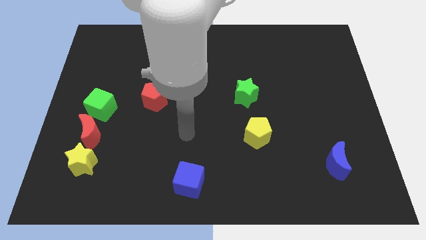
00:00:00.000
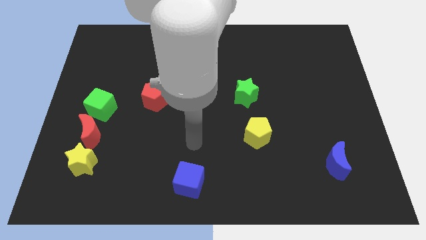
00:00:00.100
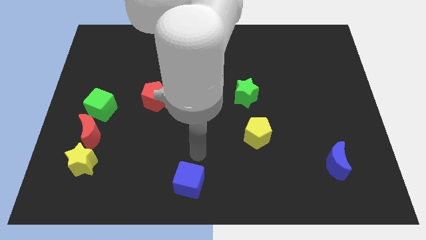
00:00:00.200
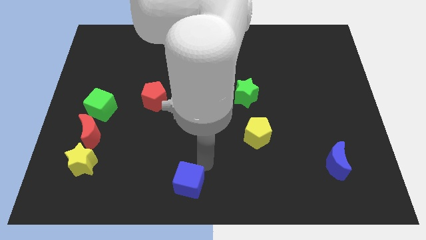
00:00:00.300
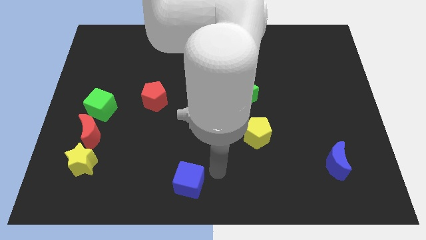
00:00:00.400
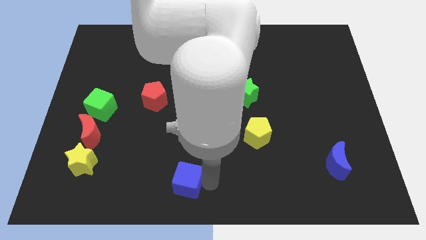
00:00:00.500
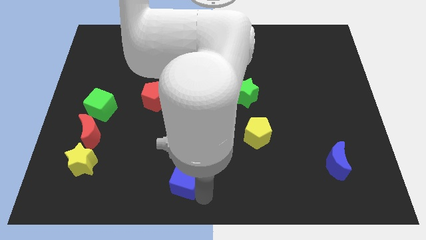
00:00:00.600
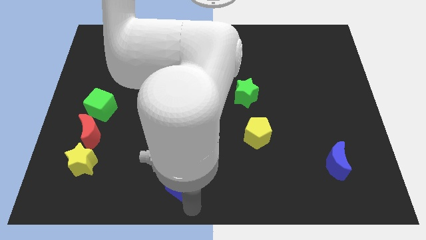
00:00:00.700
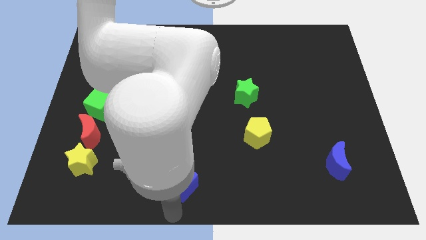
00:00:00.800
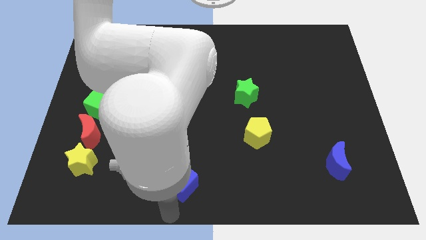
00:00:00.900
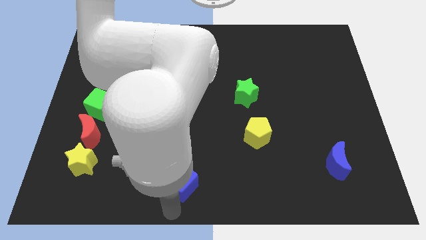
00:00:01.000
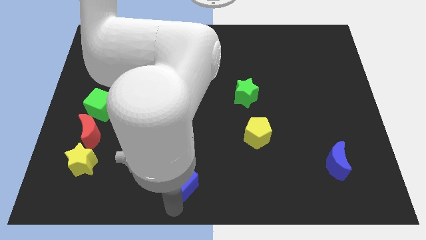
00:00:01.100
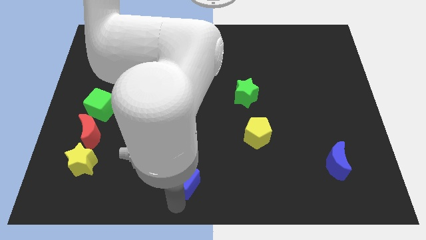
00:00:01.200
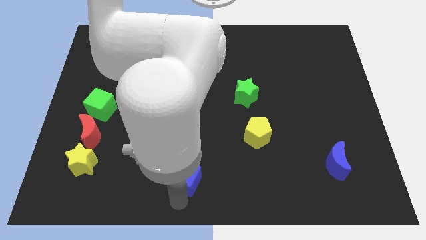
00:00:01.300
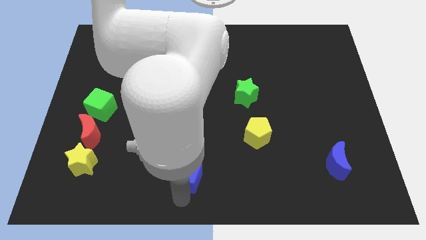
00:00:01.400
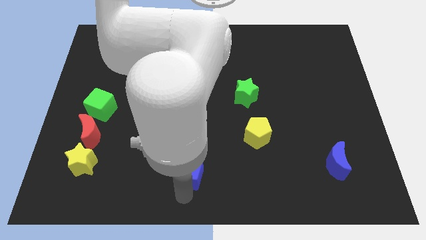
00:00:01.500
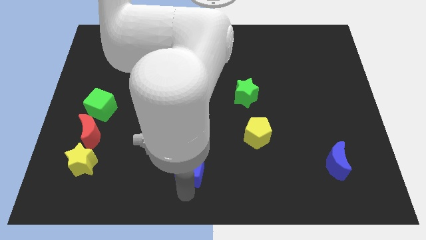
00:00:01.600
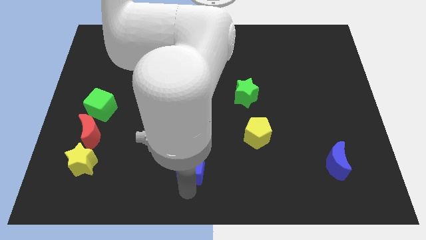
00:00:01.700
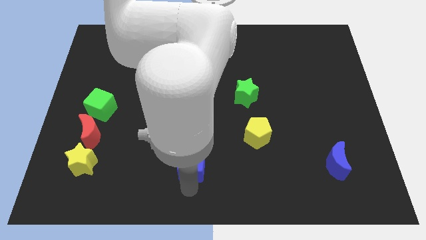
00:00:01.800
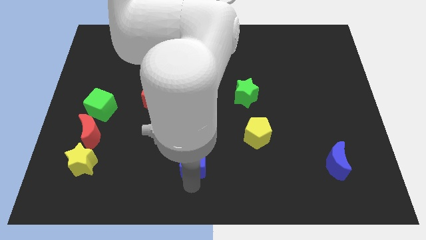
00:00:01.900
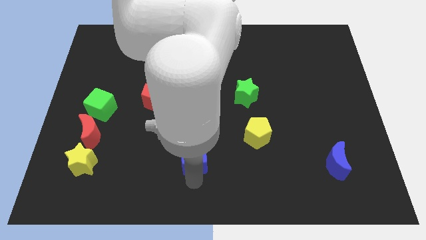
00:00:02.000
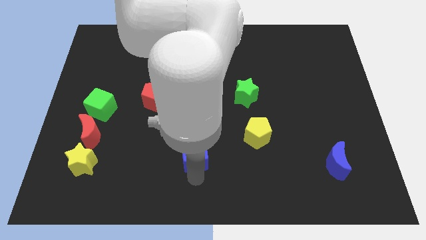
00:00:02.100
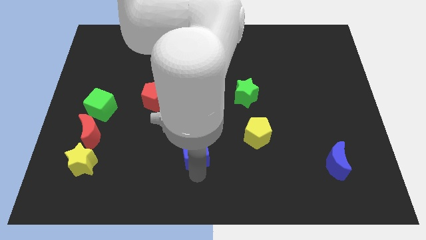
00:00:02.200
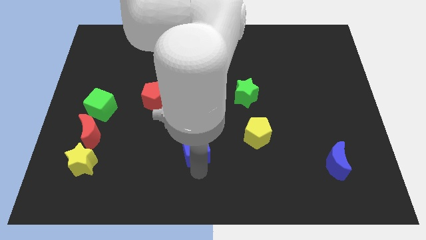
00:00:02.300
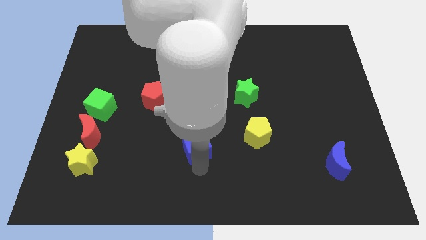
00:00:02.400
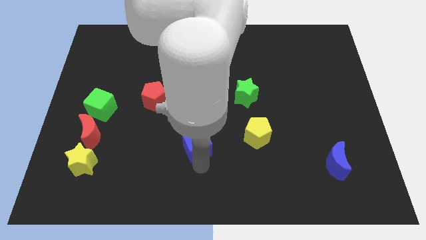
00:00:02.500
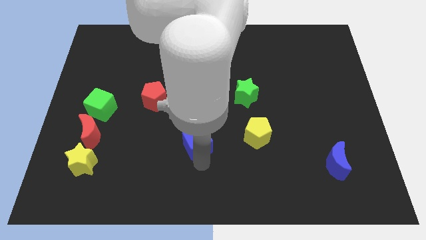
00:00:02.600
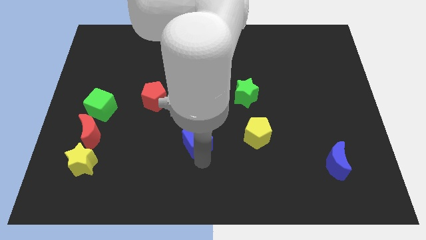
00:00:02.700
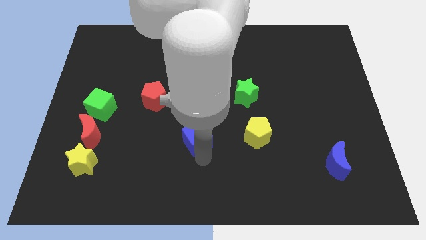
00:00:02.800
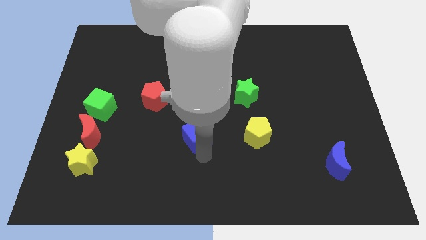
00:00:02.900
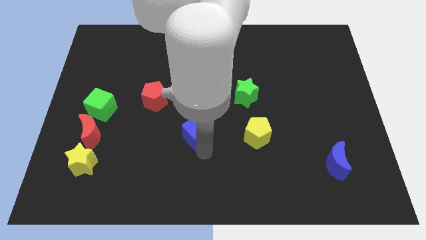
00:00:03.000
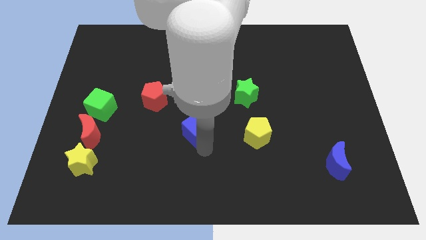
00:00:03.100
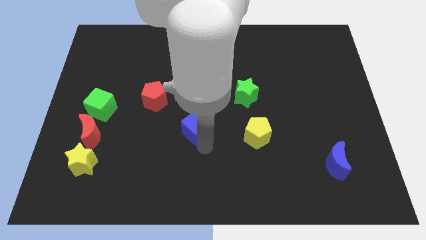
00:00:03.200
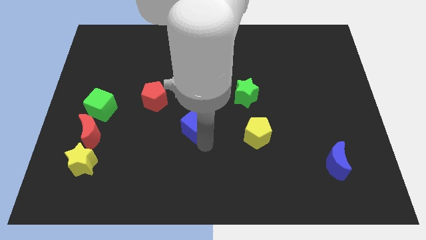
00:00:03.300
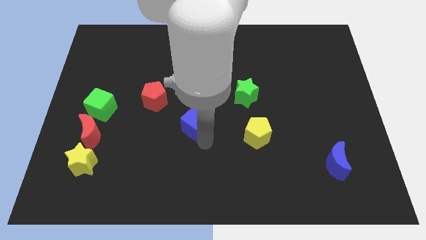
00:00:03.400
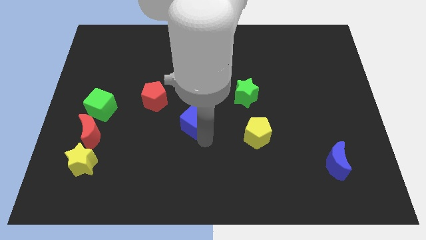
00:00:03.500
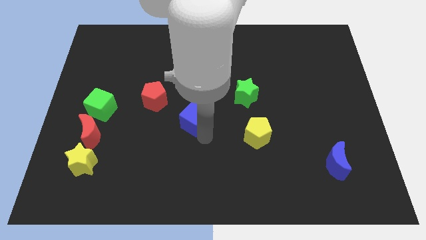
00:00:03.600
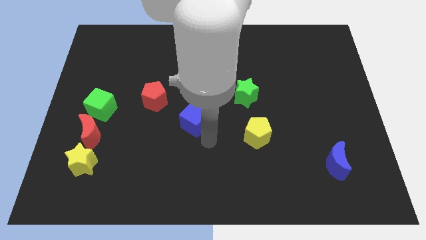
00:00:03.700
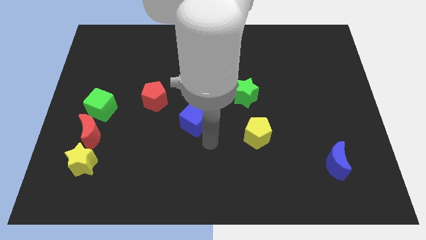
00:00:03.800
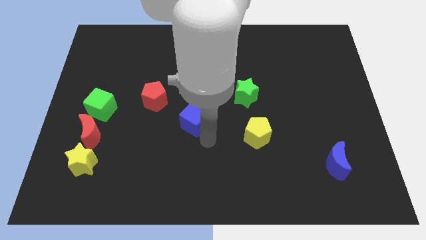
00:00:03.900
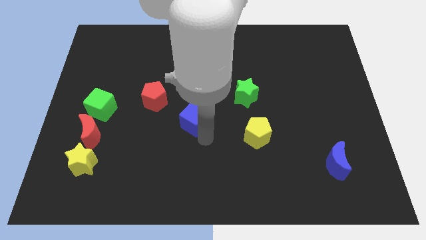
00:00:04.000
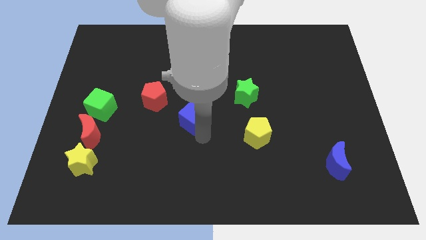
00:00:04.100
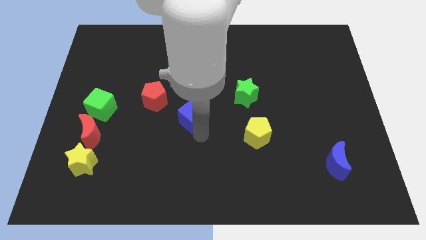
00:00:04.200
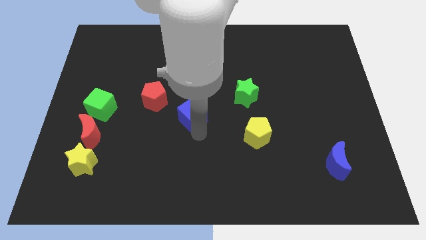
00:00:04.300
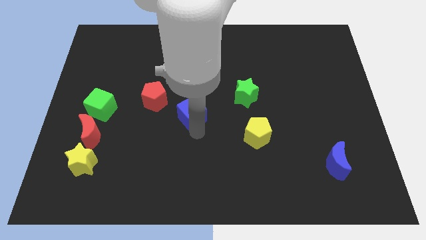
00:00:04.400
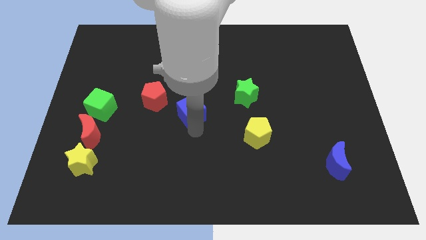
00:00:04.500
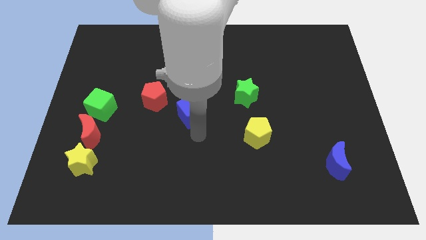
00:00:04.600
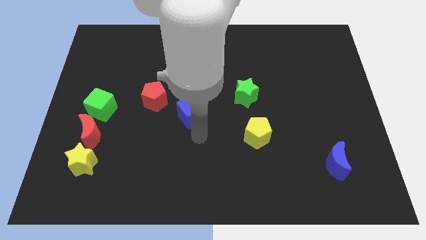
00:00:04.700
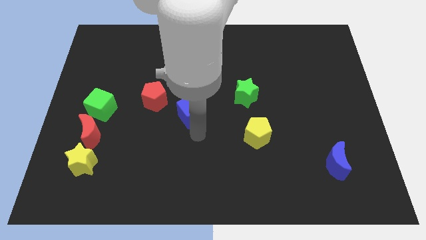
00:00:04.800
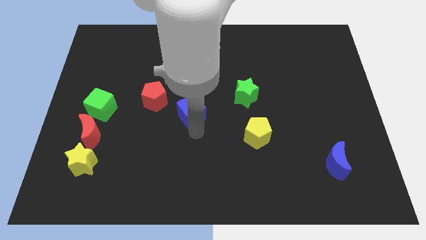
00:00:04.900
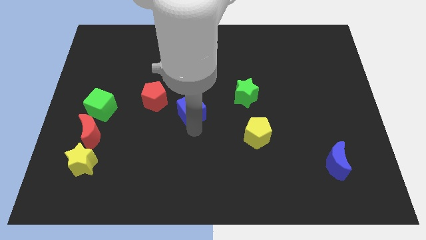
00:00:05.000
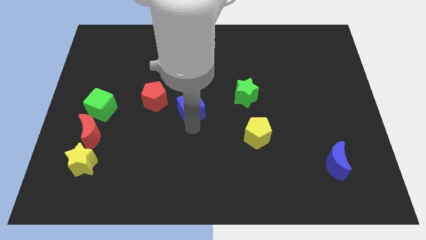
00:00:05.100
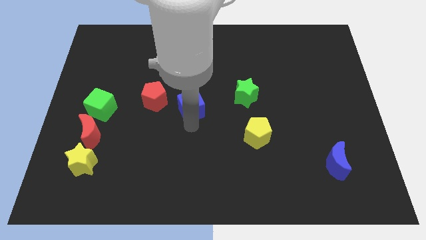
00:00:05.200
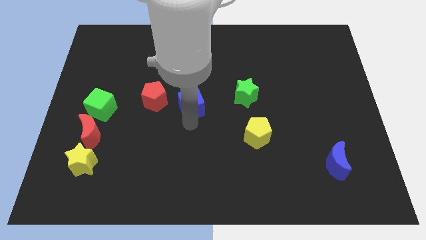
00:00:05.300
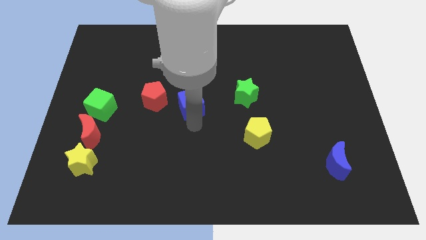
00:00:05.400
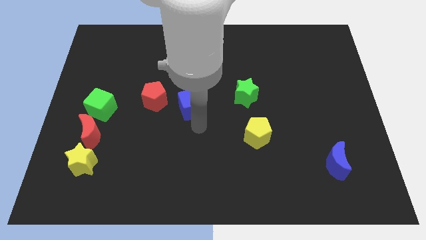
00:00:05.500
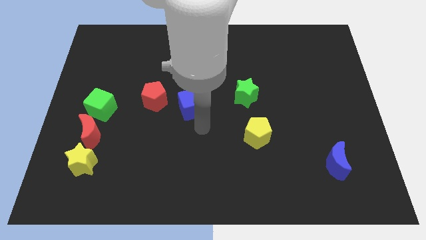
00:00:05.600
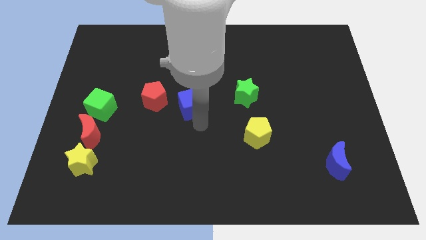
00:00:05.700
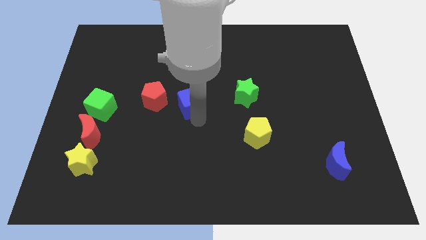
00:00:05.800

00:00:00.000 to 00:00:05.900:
push the blue cube up

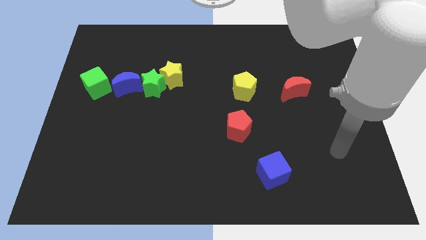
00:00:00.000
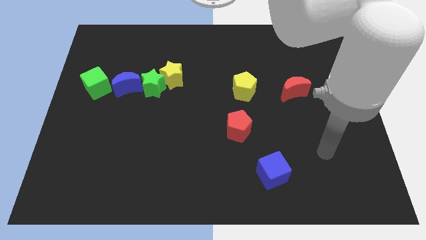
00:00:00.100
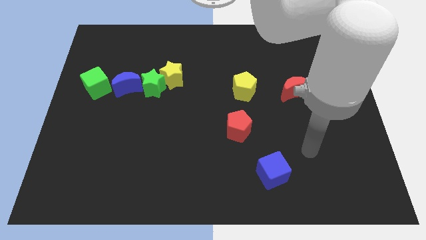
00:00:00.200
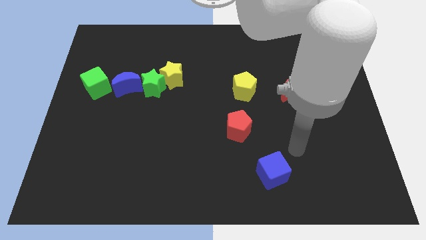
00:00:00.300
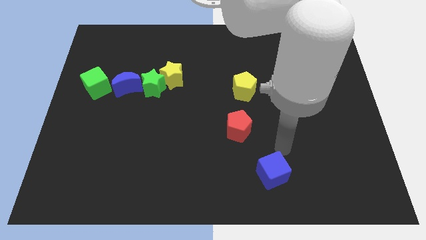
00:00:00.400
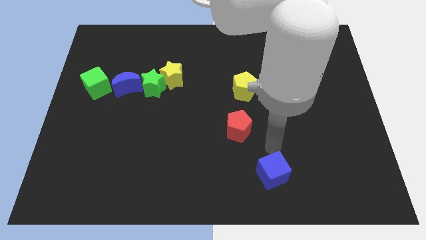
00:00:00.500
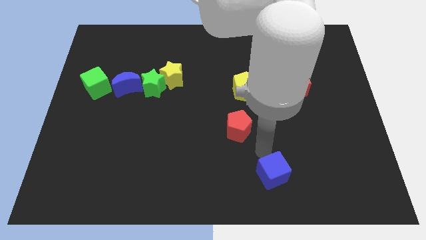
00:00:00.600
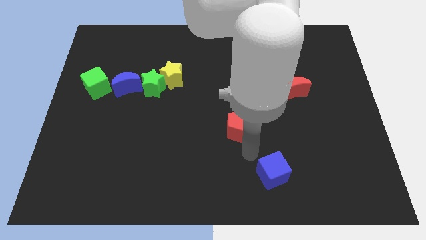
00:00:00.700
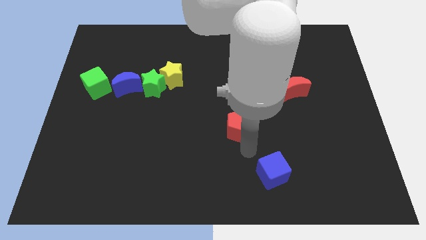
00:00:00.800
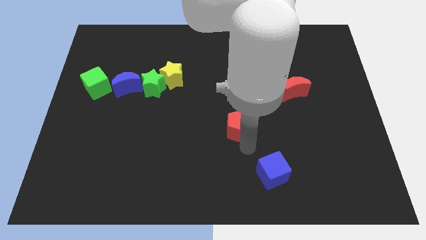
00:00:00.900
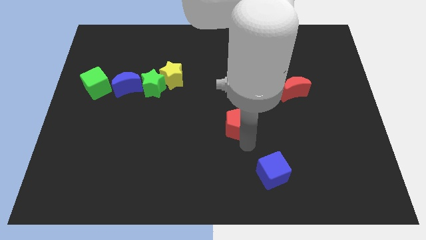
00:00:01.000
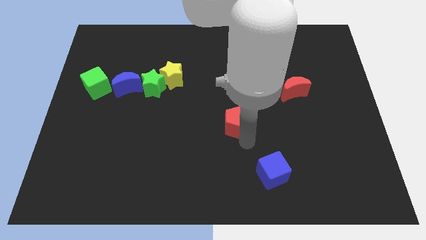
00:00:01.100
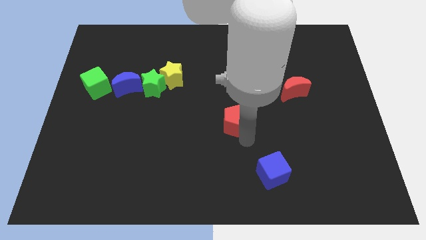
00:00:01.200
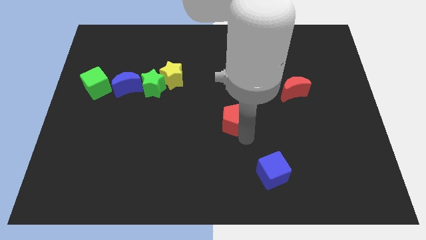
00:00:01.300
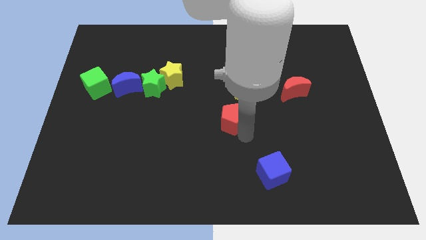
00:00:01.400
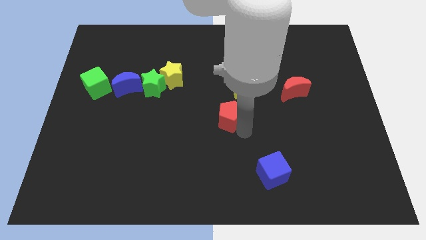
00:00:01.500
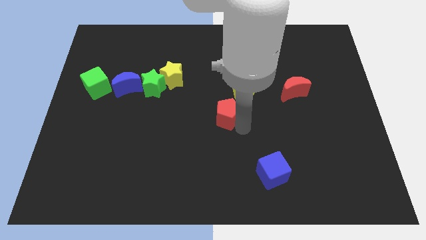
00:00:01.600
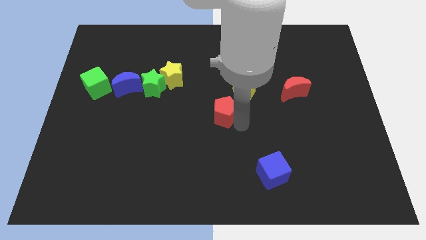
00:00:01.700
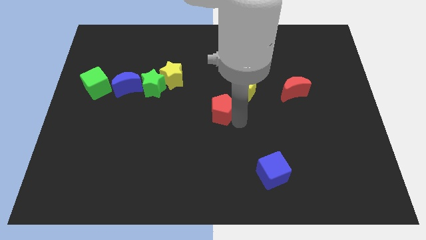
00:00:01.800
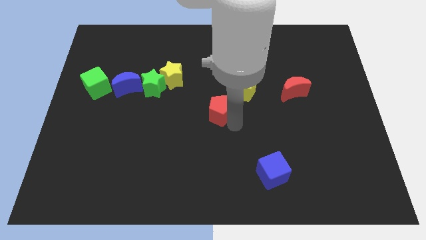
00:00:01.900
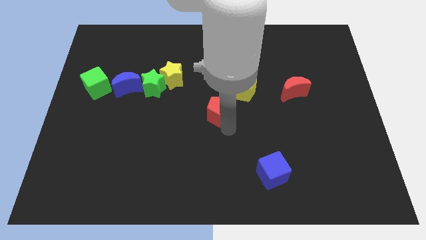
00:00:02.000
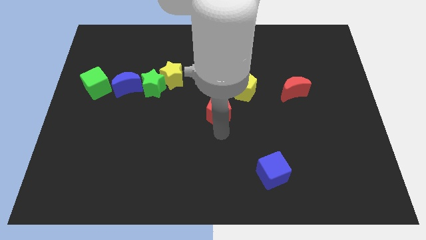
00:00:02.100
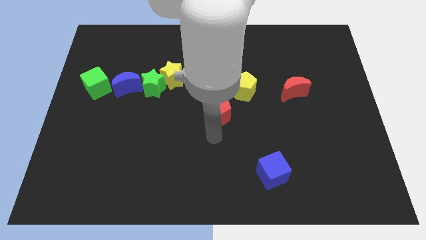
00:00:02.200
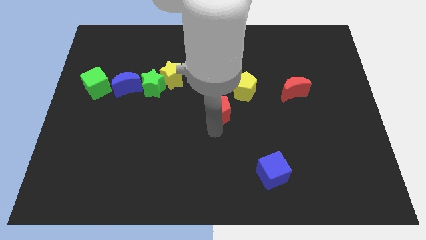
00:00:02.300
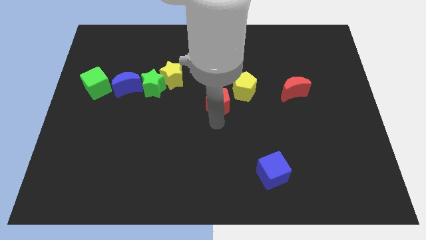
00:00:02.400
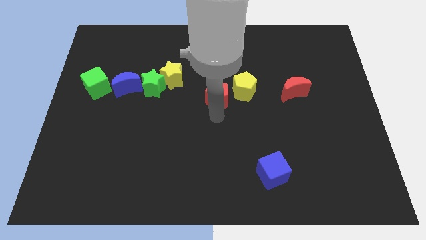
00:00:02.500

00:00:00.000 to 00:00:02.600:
move the red pentagon upwards a bit
